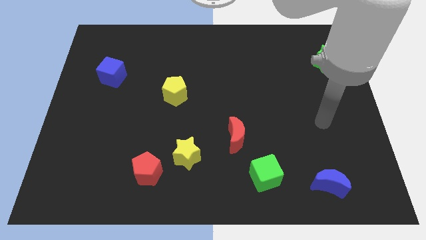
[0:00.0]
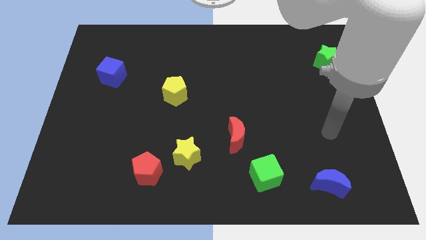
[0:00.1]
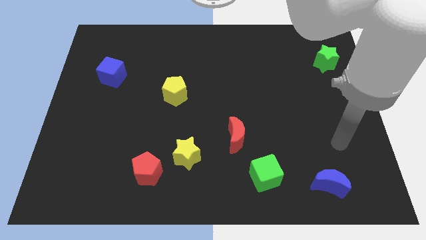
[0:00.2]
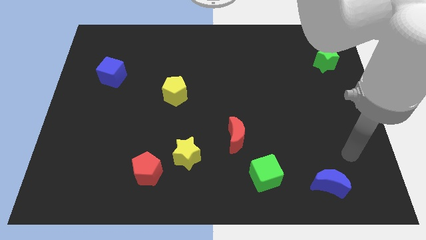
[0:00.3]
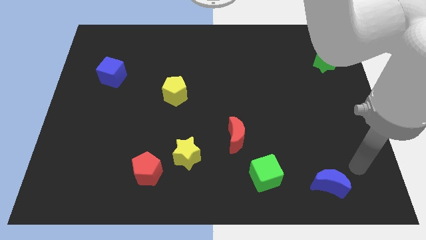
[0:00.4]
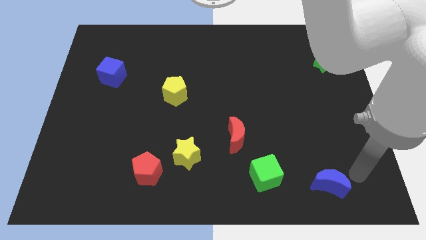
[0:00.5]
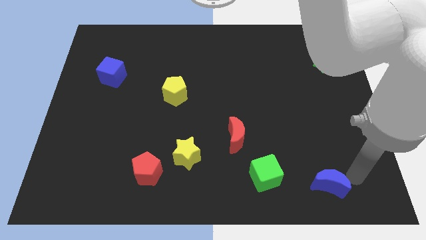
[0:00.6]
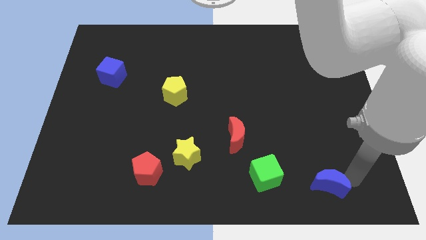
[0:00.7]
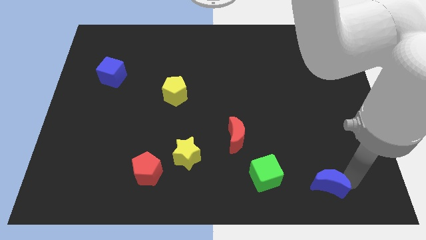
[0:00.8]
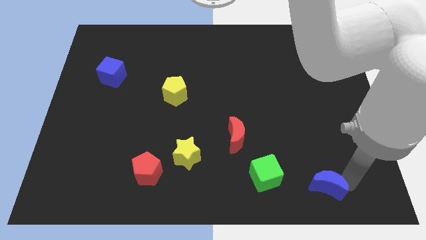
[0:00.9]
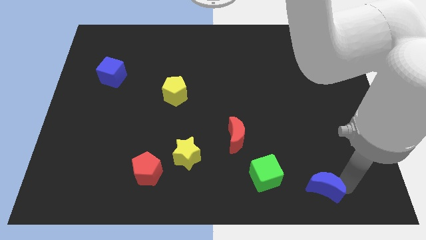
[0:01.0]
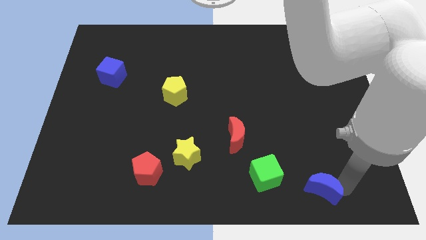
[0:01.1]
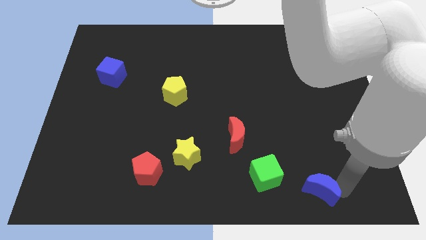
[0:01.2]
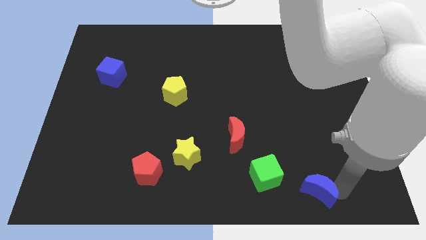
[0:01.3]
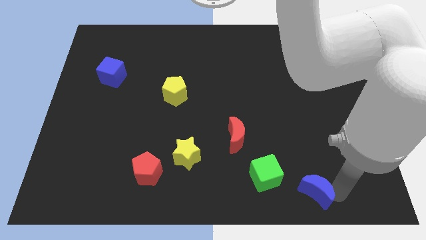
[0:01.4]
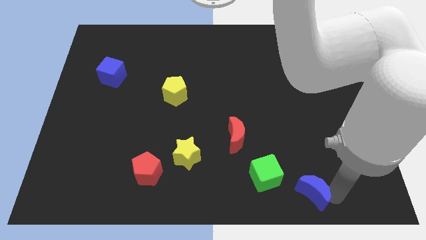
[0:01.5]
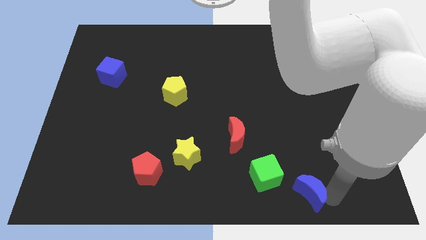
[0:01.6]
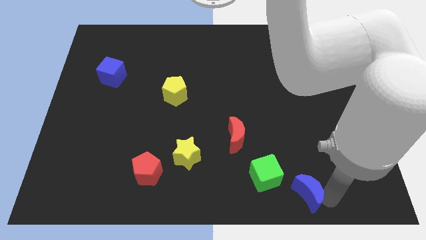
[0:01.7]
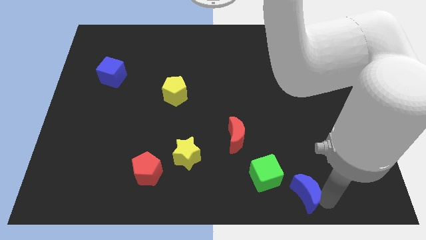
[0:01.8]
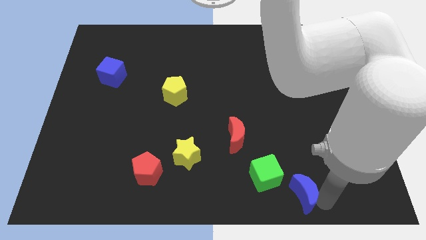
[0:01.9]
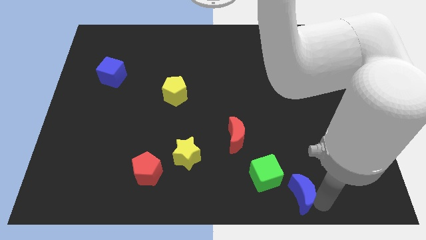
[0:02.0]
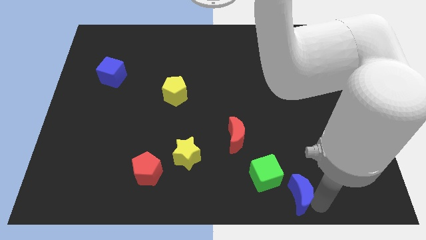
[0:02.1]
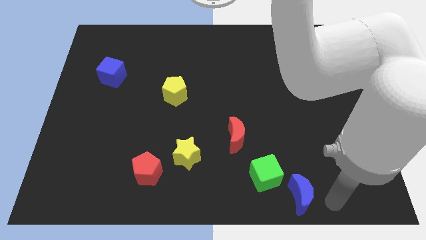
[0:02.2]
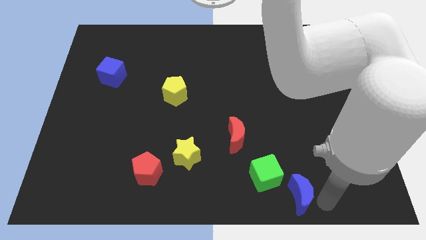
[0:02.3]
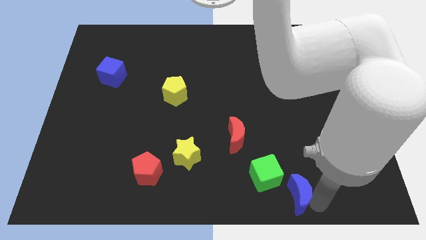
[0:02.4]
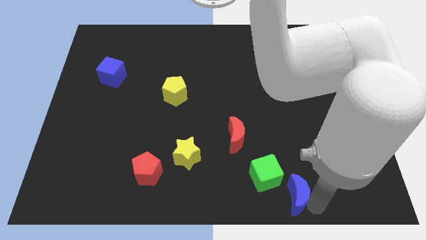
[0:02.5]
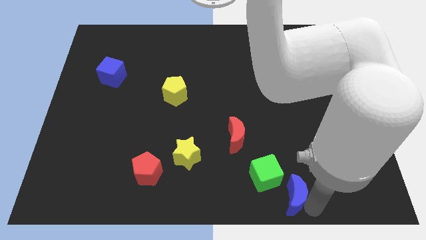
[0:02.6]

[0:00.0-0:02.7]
push the blue moon left a little

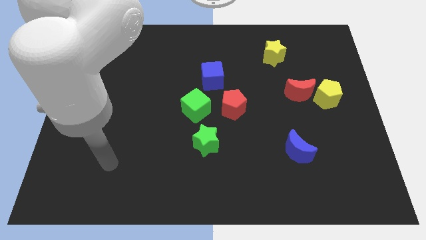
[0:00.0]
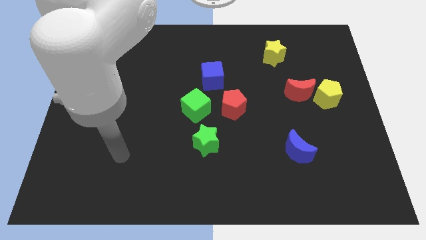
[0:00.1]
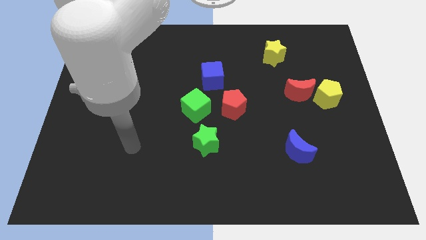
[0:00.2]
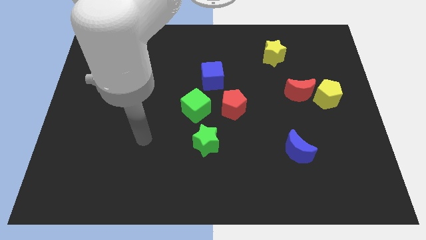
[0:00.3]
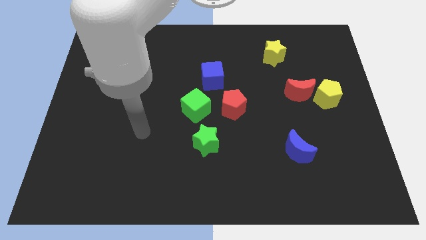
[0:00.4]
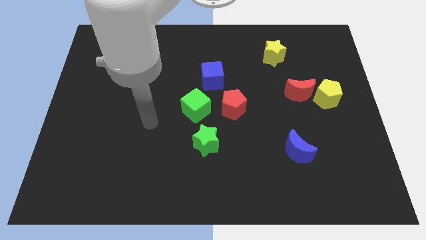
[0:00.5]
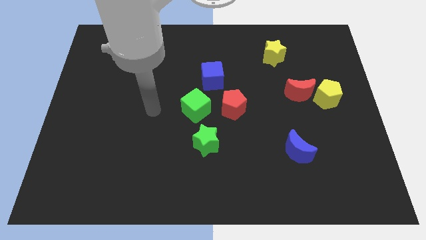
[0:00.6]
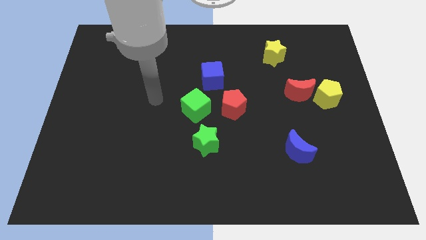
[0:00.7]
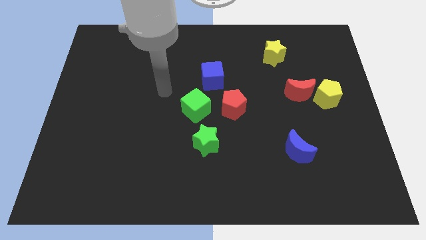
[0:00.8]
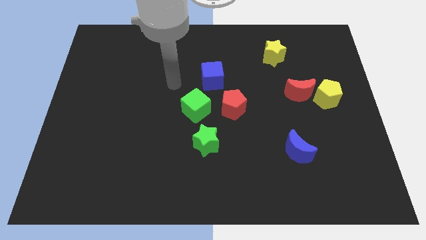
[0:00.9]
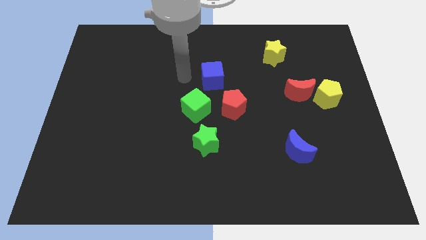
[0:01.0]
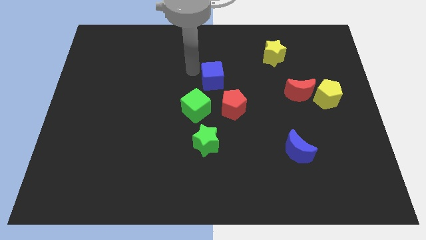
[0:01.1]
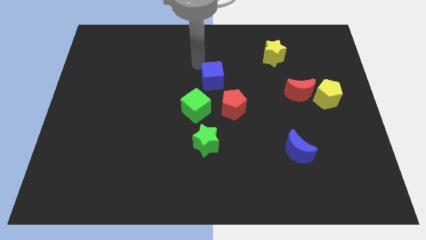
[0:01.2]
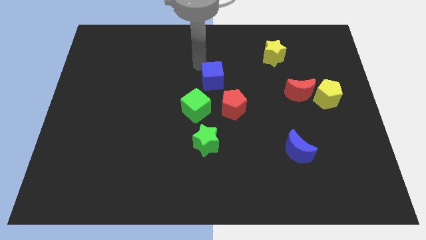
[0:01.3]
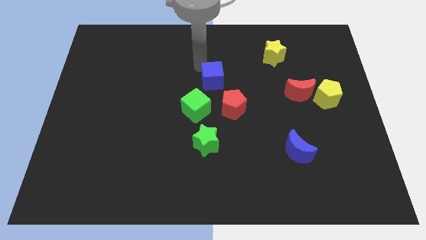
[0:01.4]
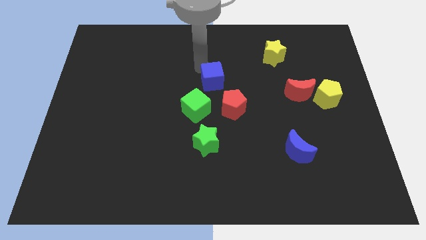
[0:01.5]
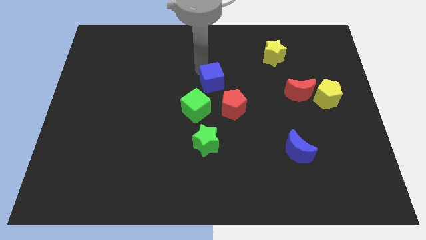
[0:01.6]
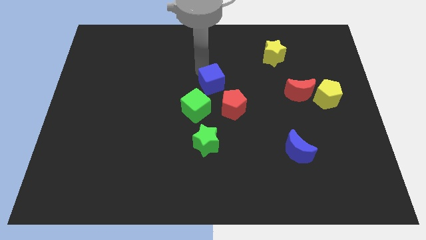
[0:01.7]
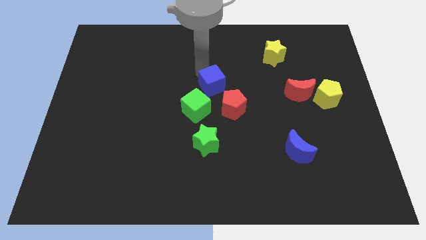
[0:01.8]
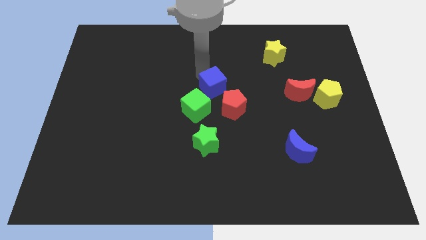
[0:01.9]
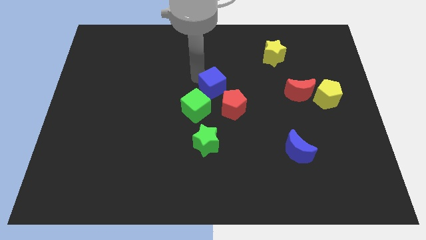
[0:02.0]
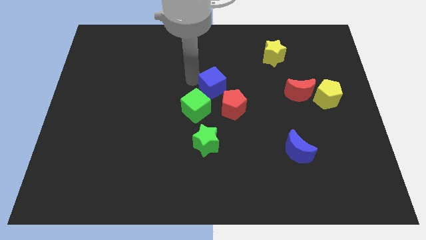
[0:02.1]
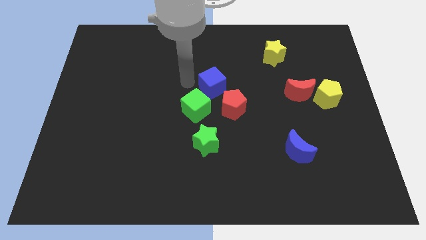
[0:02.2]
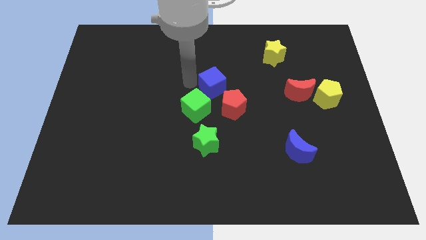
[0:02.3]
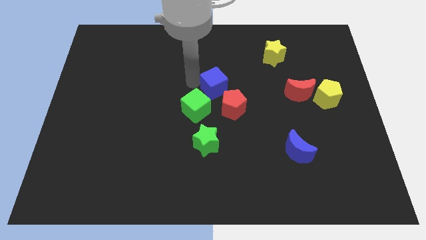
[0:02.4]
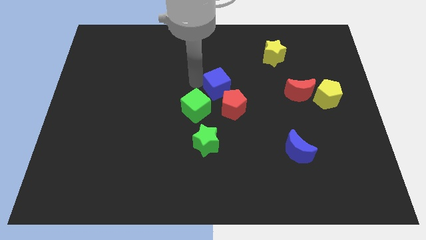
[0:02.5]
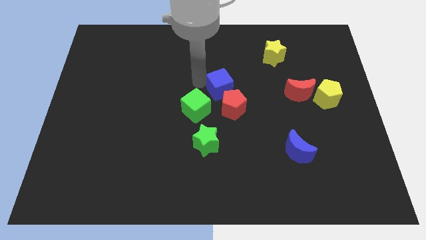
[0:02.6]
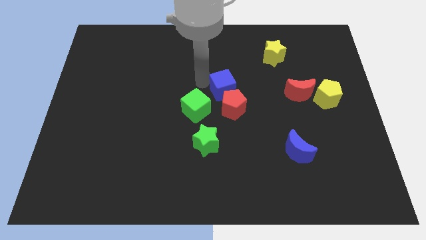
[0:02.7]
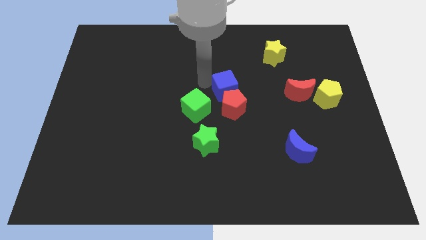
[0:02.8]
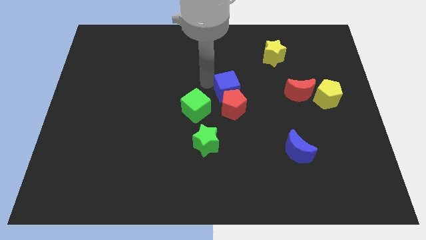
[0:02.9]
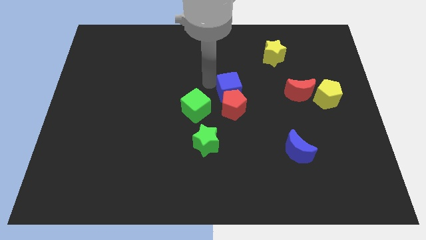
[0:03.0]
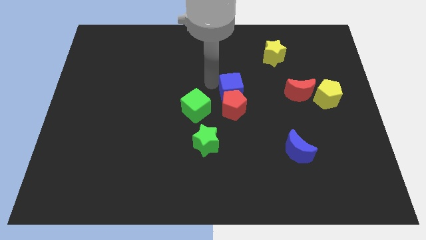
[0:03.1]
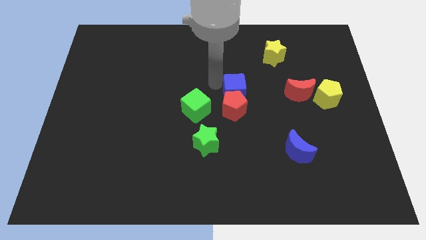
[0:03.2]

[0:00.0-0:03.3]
push the blue cube somewhat down and then to the right

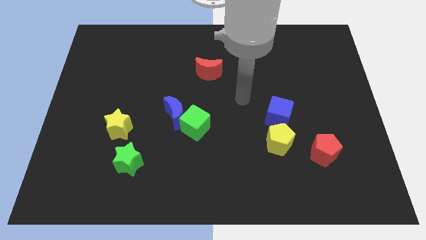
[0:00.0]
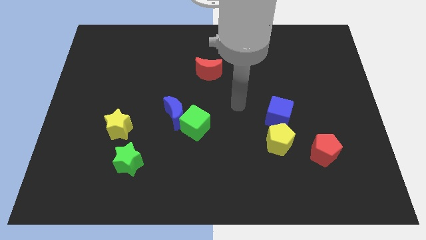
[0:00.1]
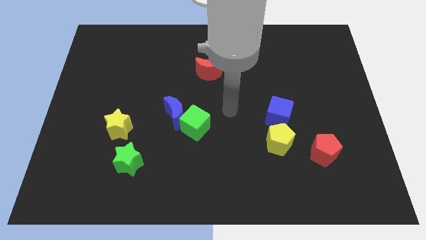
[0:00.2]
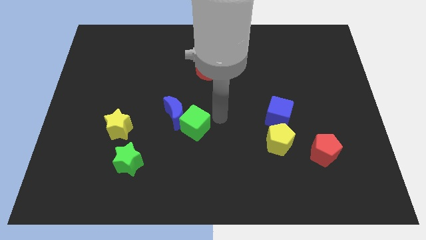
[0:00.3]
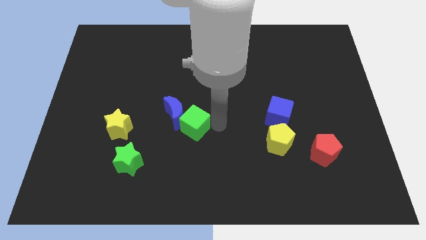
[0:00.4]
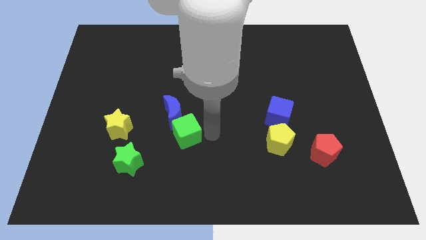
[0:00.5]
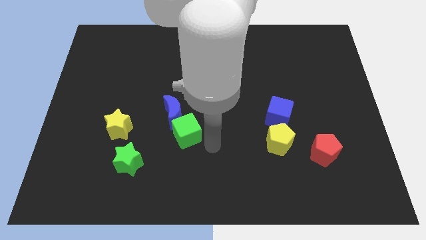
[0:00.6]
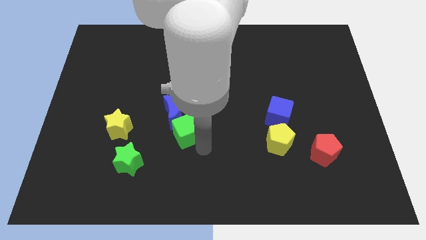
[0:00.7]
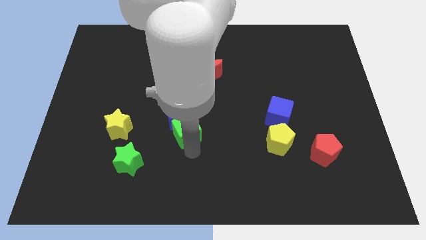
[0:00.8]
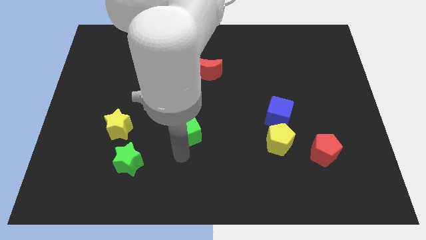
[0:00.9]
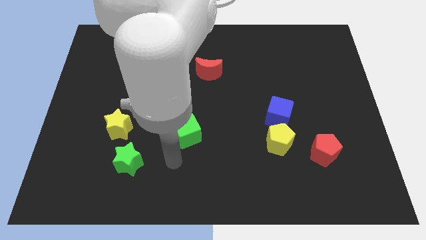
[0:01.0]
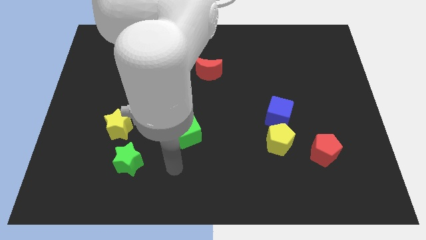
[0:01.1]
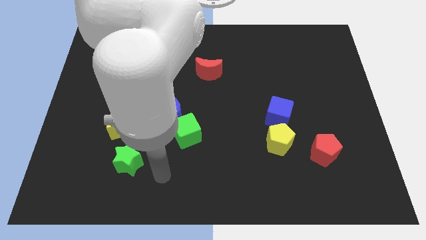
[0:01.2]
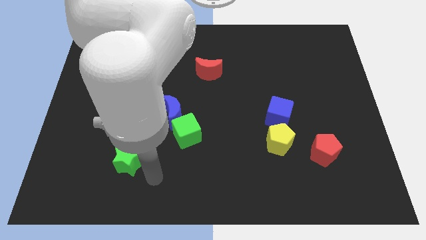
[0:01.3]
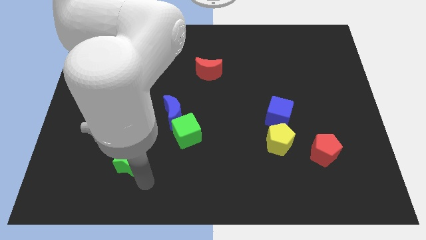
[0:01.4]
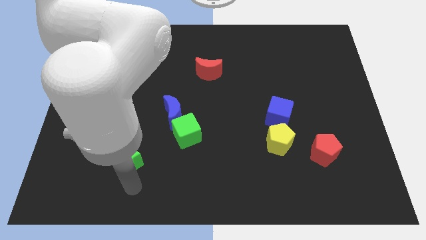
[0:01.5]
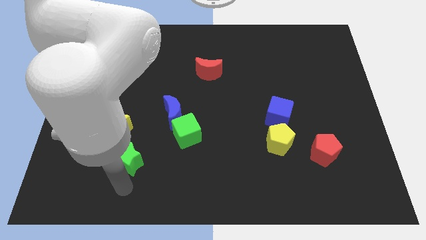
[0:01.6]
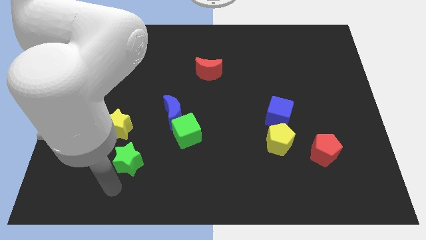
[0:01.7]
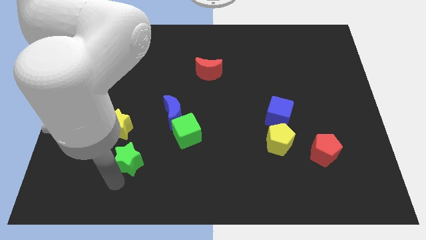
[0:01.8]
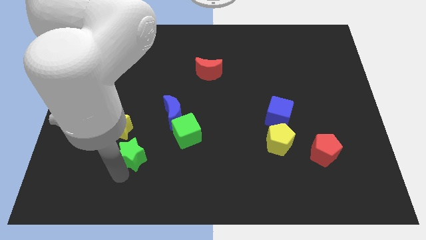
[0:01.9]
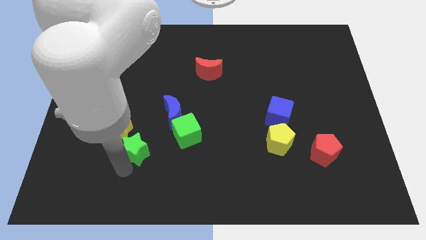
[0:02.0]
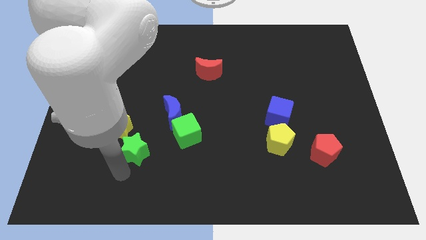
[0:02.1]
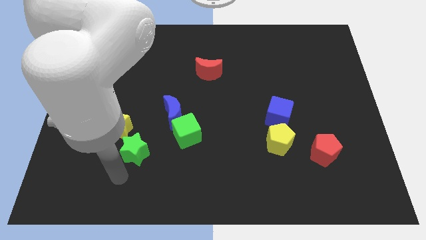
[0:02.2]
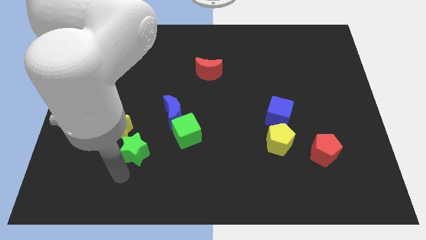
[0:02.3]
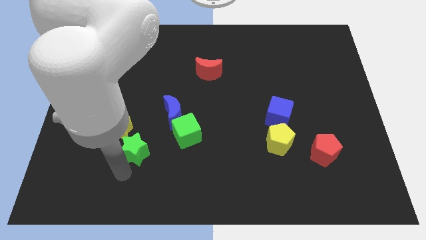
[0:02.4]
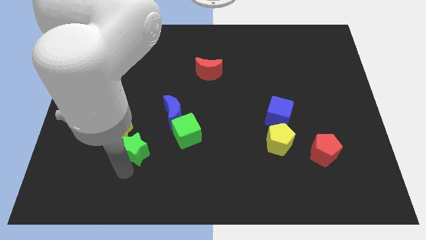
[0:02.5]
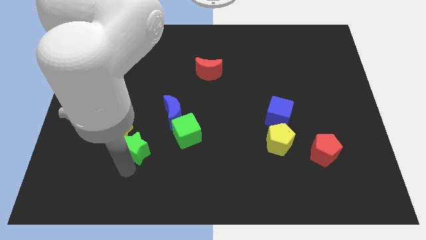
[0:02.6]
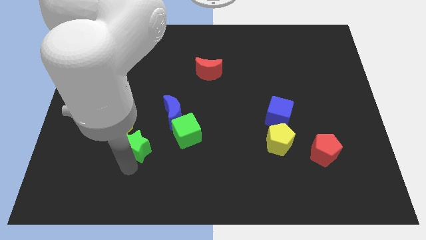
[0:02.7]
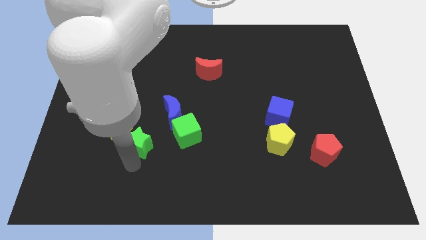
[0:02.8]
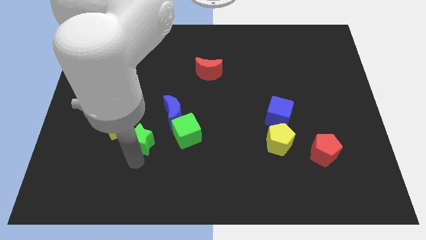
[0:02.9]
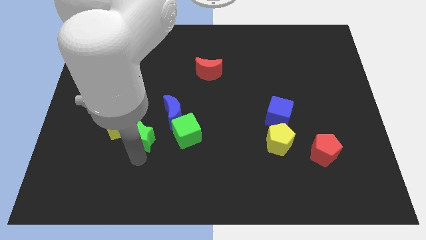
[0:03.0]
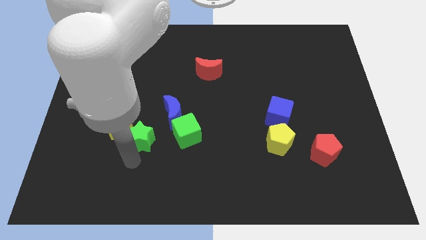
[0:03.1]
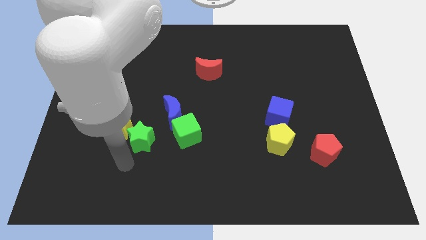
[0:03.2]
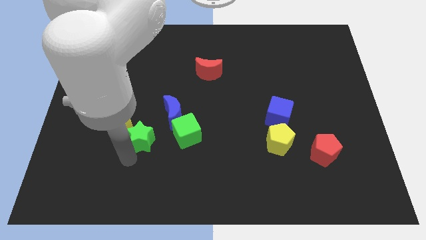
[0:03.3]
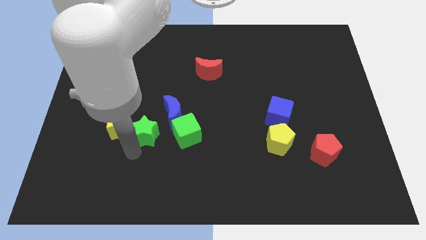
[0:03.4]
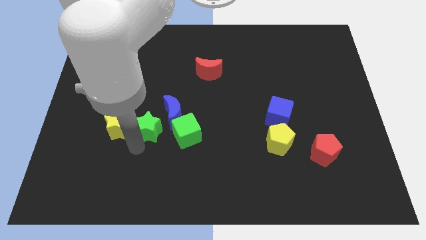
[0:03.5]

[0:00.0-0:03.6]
move the green star up and to the right diagonally a little bit
